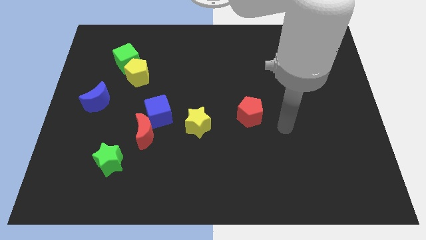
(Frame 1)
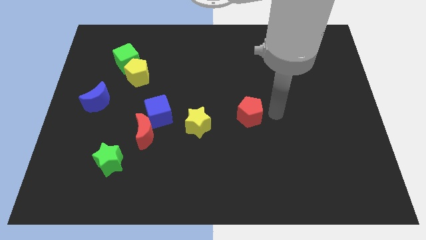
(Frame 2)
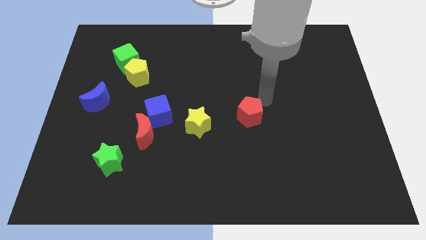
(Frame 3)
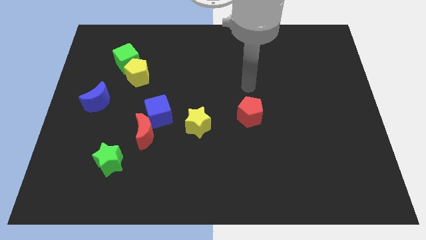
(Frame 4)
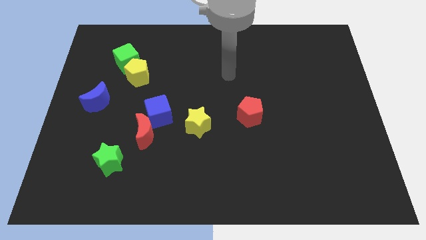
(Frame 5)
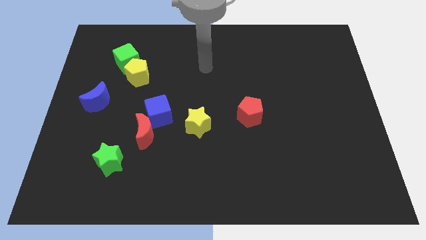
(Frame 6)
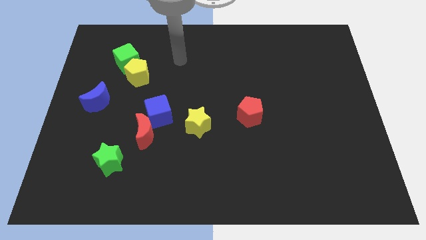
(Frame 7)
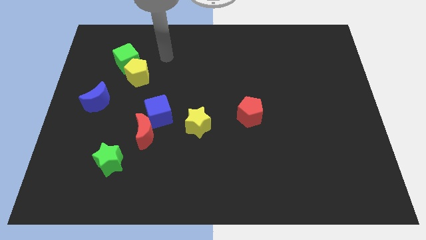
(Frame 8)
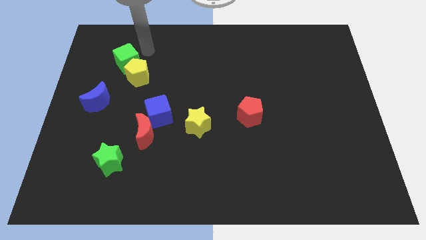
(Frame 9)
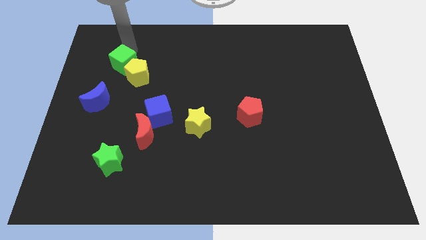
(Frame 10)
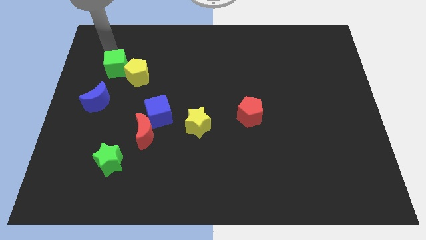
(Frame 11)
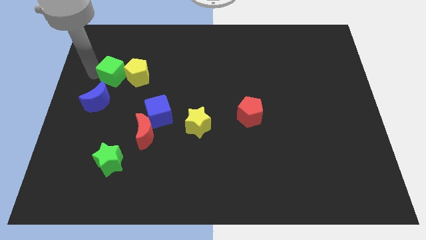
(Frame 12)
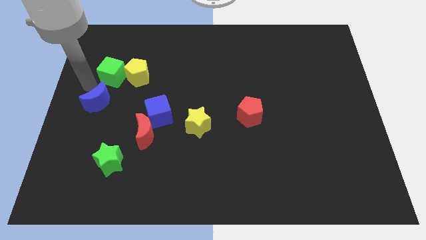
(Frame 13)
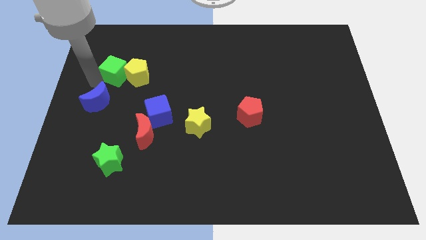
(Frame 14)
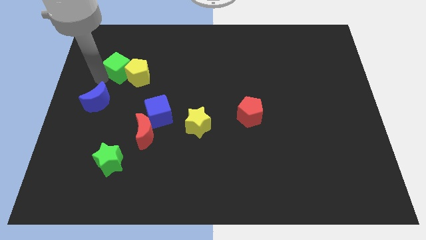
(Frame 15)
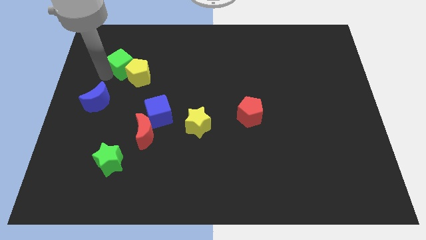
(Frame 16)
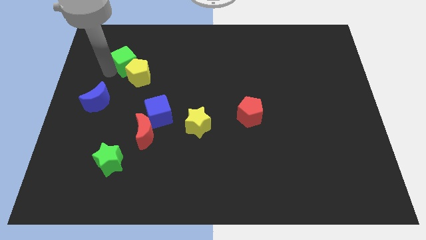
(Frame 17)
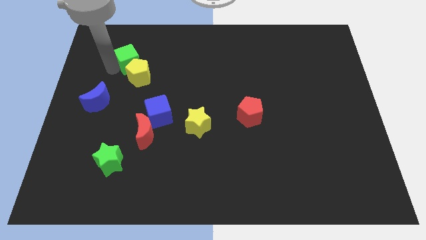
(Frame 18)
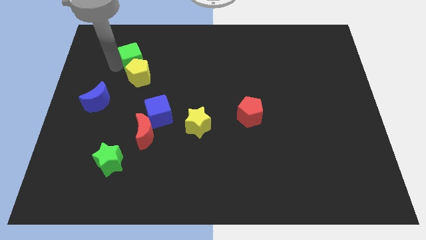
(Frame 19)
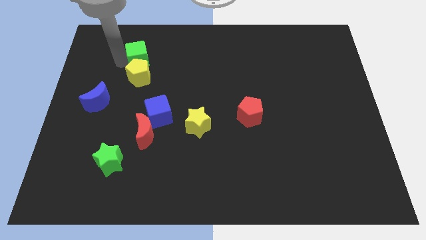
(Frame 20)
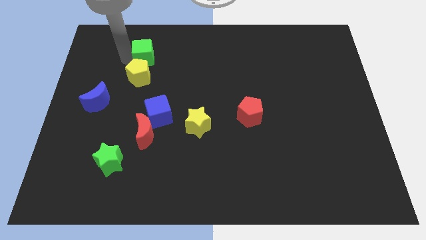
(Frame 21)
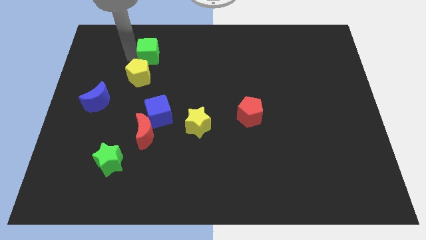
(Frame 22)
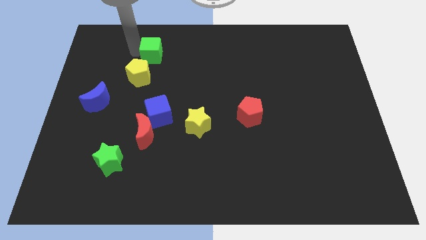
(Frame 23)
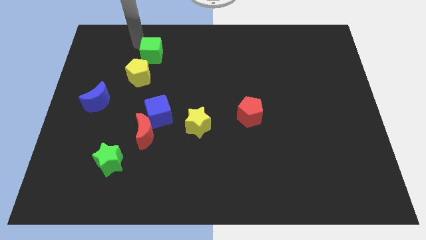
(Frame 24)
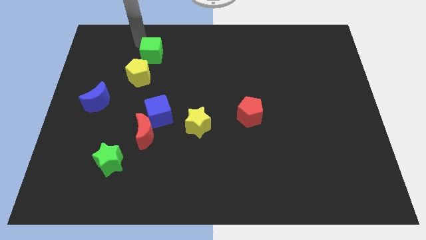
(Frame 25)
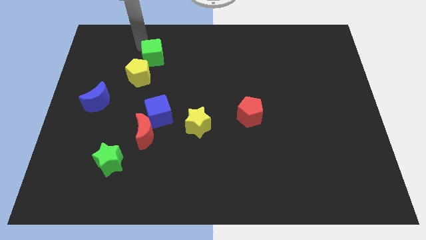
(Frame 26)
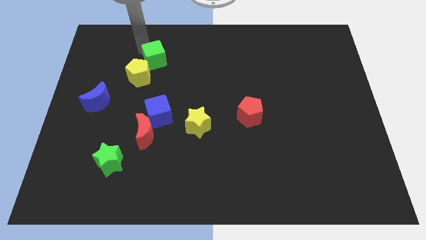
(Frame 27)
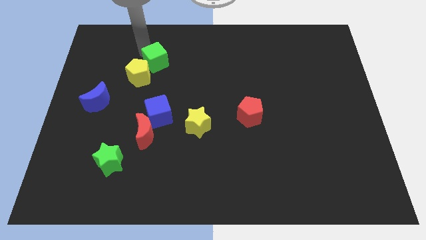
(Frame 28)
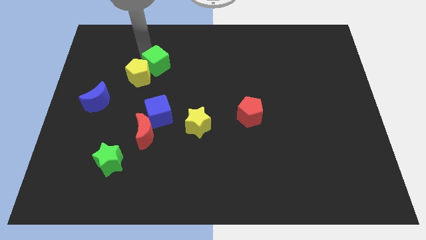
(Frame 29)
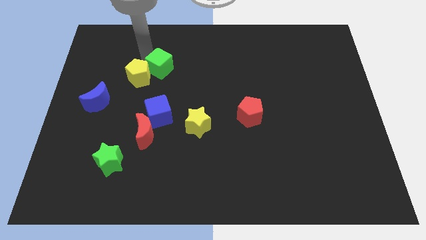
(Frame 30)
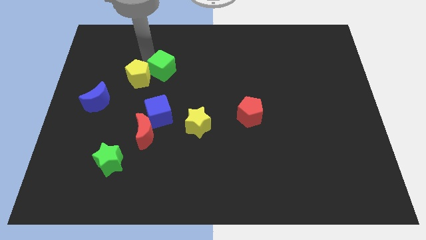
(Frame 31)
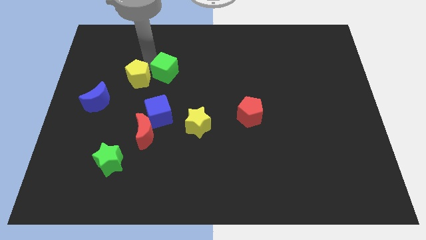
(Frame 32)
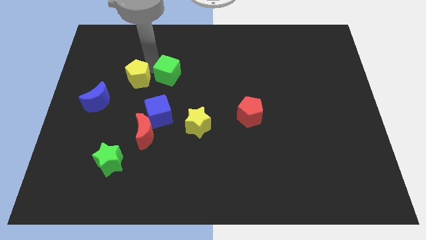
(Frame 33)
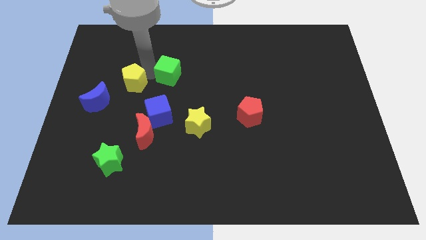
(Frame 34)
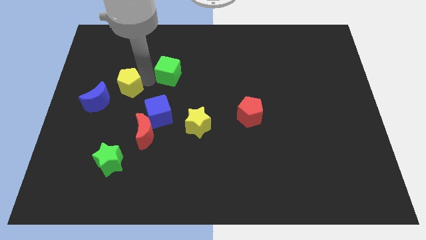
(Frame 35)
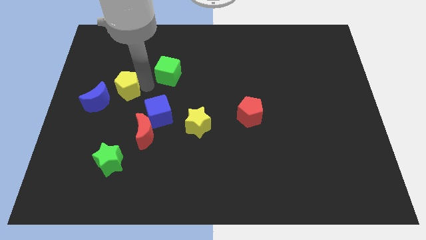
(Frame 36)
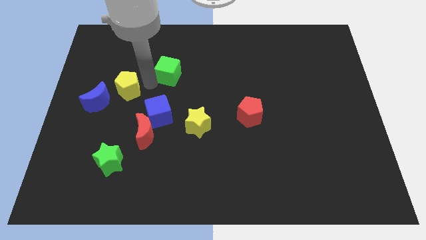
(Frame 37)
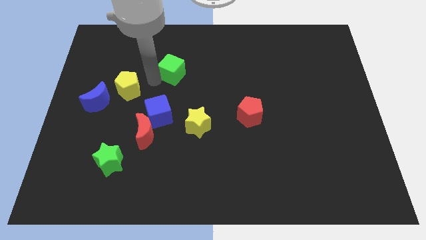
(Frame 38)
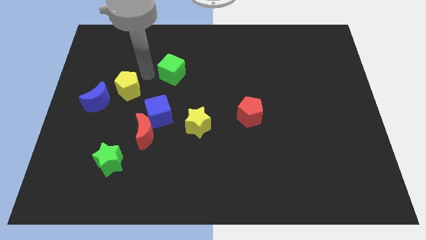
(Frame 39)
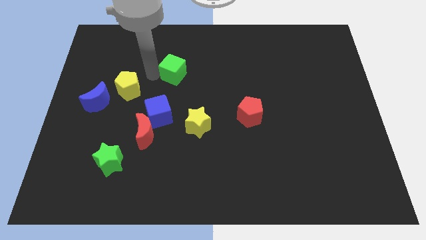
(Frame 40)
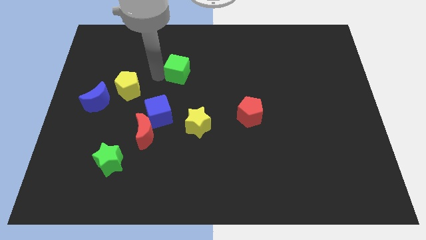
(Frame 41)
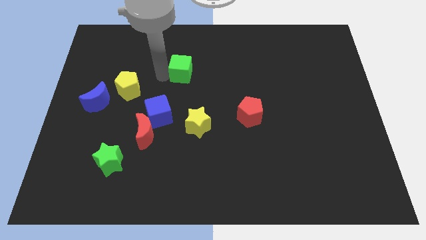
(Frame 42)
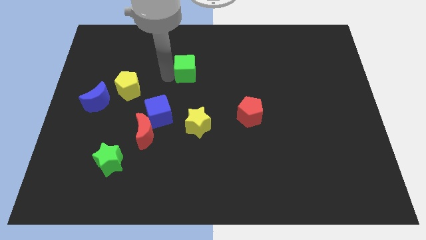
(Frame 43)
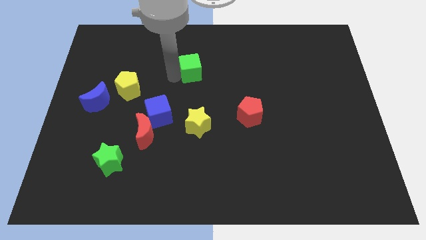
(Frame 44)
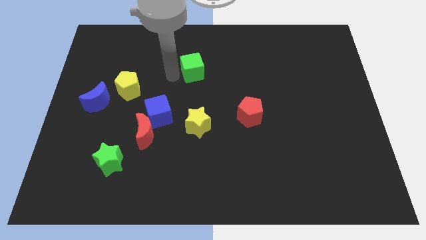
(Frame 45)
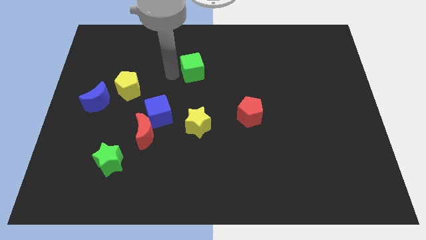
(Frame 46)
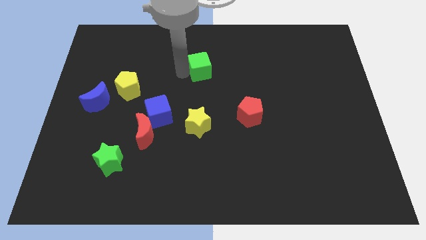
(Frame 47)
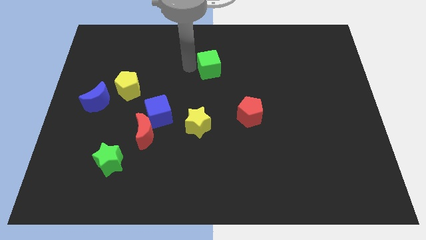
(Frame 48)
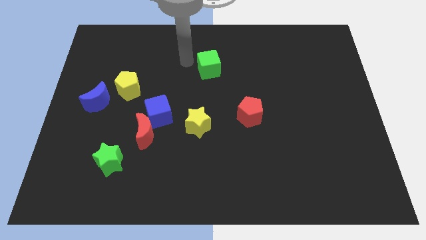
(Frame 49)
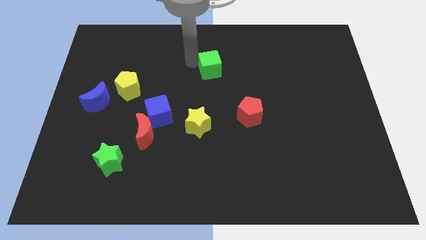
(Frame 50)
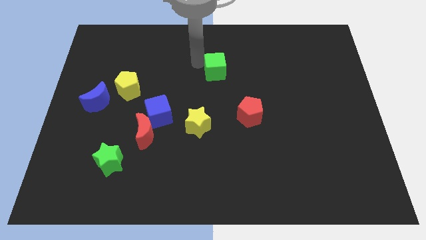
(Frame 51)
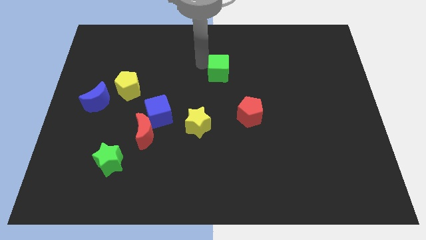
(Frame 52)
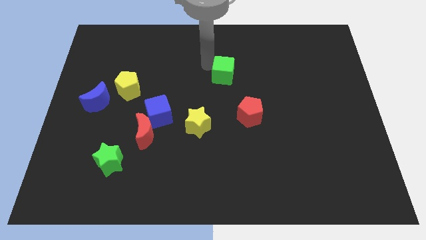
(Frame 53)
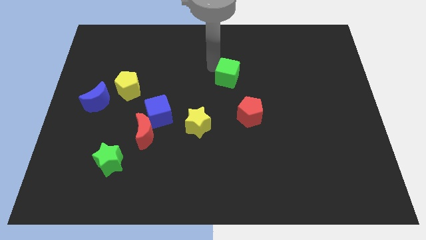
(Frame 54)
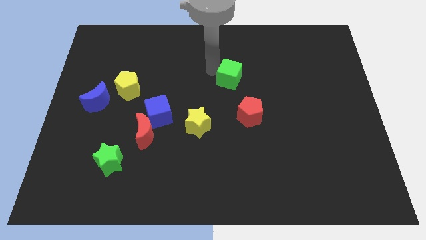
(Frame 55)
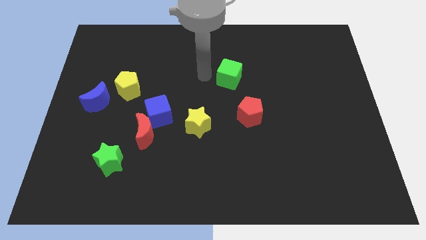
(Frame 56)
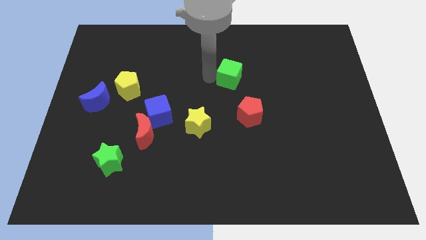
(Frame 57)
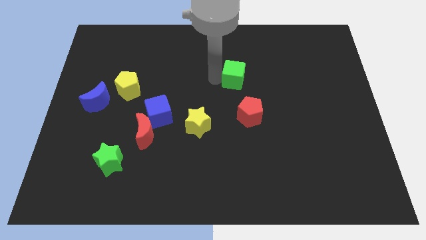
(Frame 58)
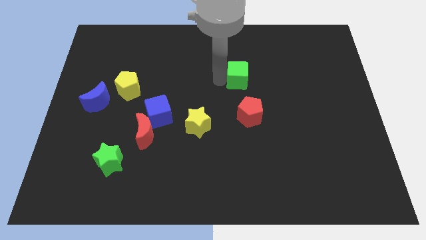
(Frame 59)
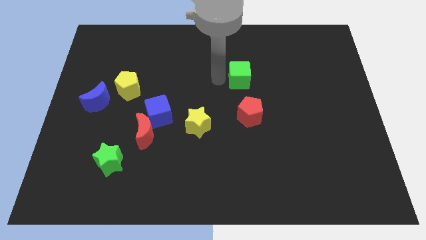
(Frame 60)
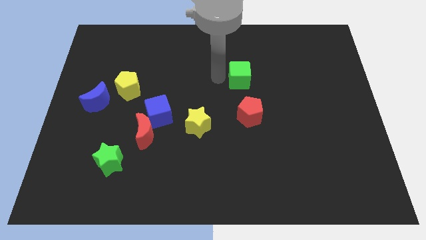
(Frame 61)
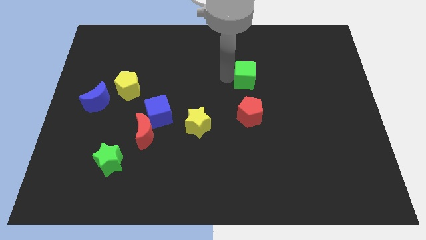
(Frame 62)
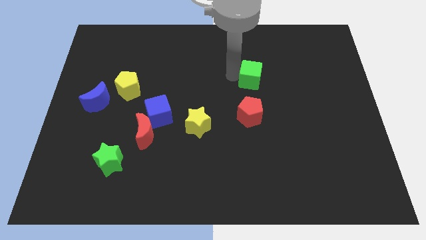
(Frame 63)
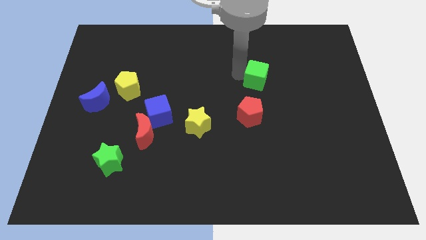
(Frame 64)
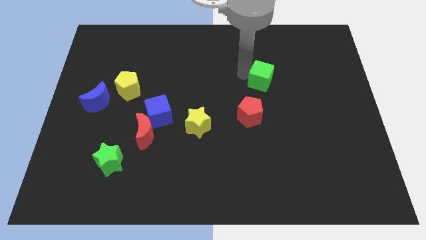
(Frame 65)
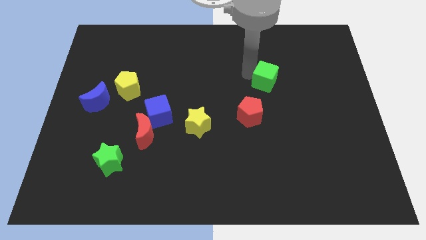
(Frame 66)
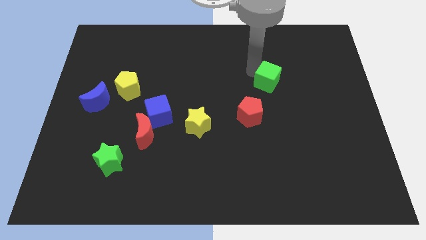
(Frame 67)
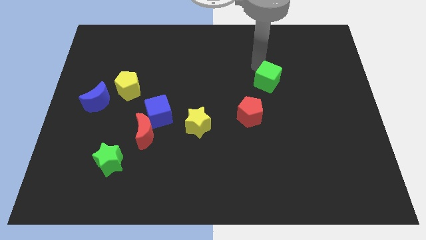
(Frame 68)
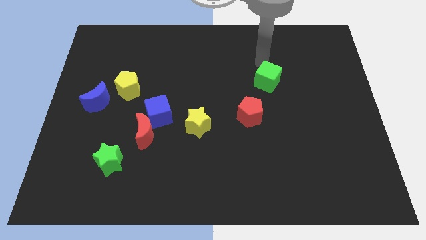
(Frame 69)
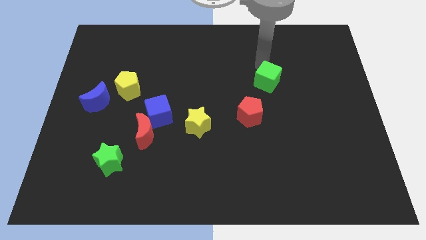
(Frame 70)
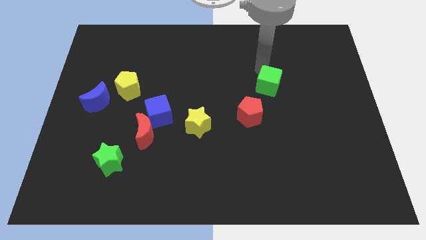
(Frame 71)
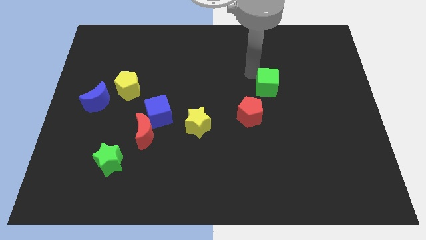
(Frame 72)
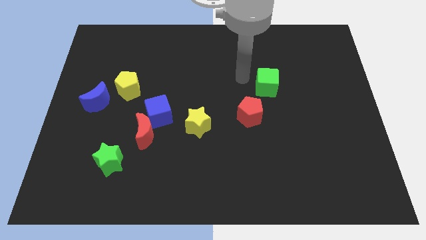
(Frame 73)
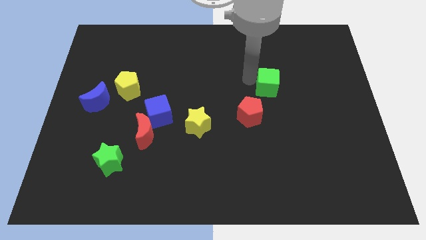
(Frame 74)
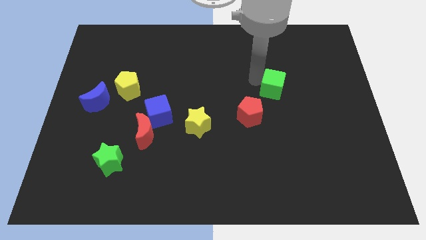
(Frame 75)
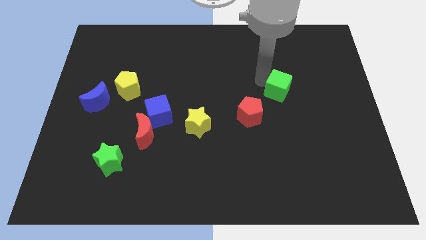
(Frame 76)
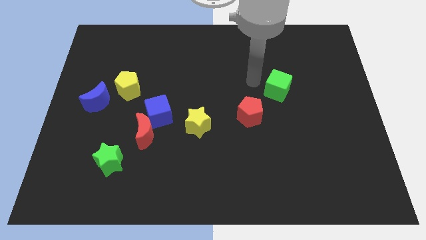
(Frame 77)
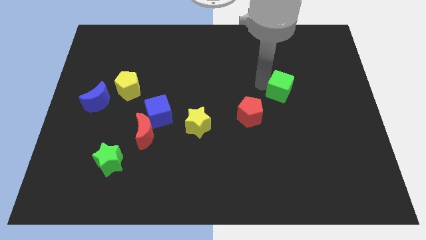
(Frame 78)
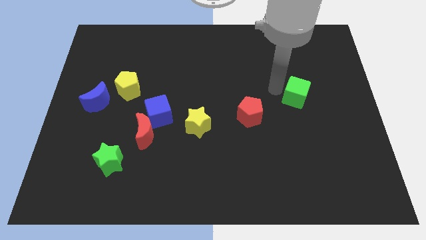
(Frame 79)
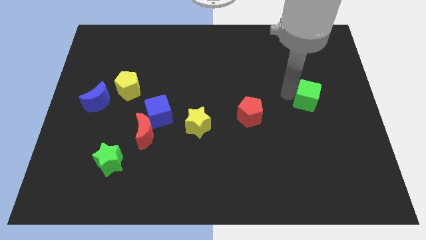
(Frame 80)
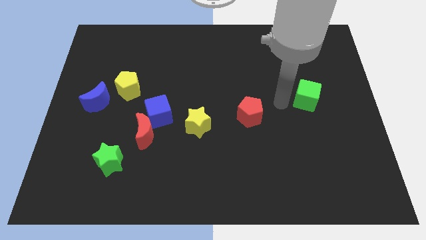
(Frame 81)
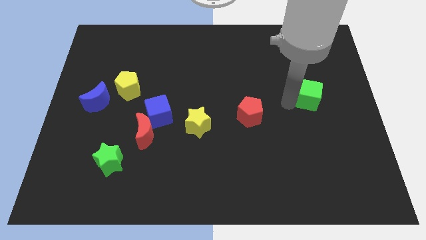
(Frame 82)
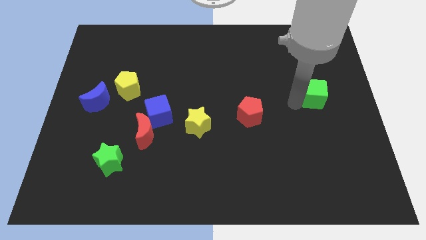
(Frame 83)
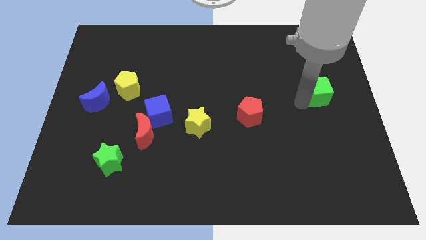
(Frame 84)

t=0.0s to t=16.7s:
put the green cube to the right side of the board
